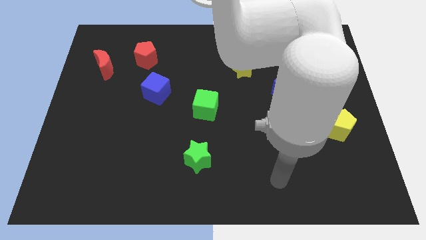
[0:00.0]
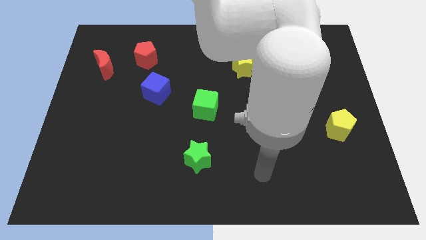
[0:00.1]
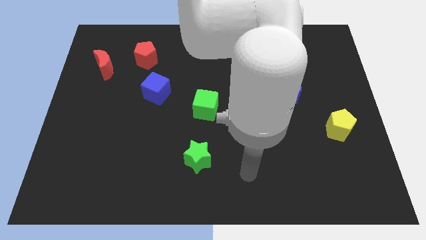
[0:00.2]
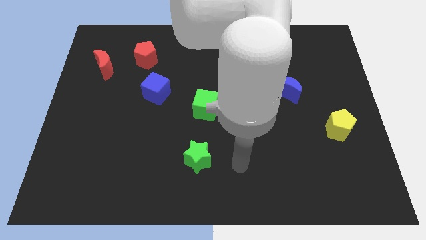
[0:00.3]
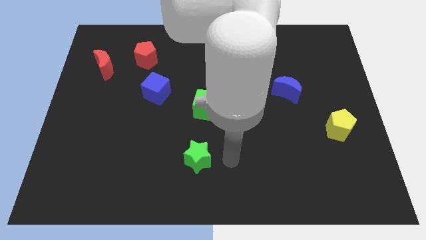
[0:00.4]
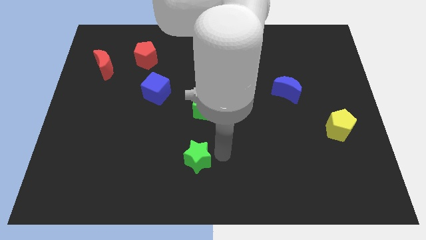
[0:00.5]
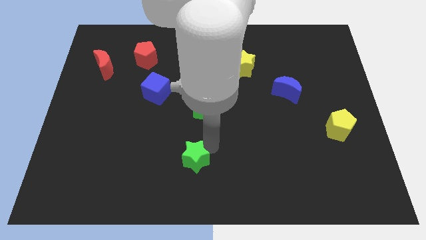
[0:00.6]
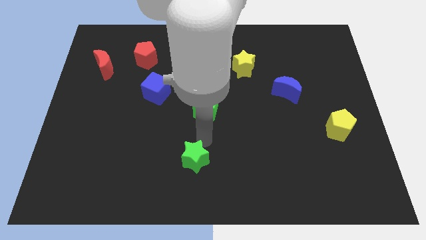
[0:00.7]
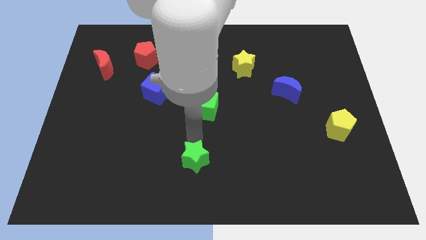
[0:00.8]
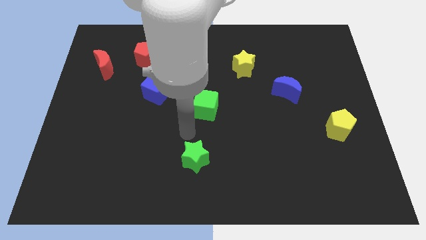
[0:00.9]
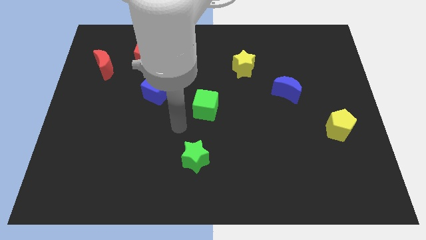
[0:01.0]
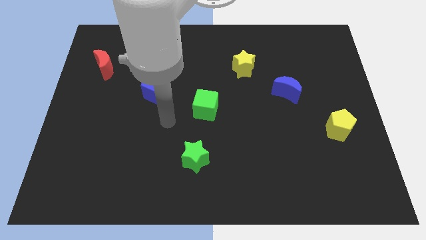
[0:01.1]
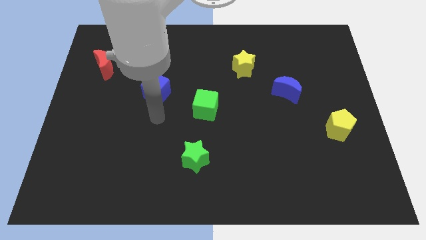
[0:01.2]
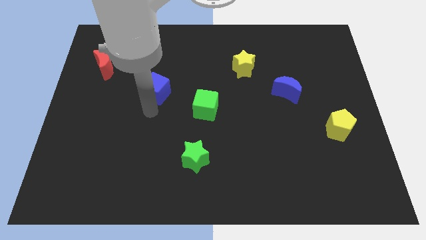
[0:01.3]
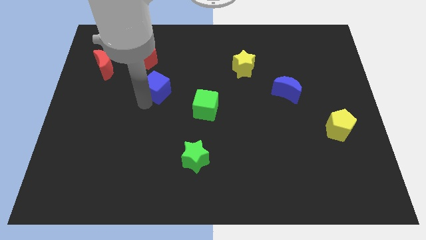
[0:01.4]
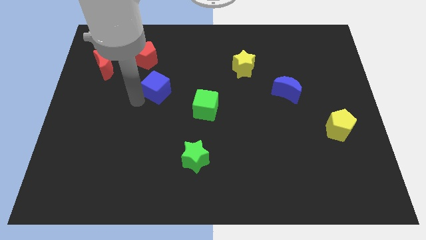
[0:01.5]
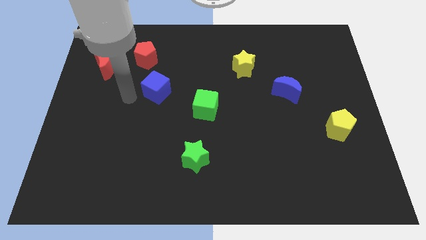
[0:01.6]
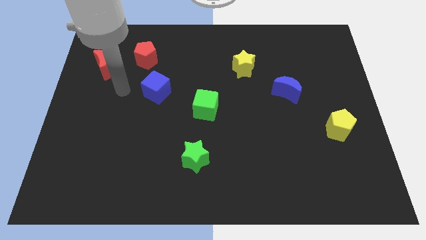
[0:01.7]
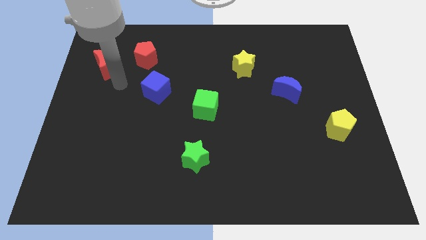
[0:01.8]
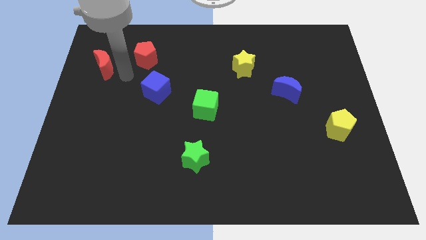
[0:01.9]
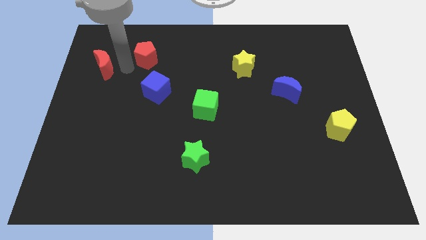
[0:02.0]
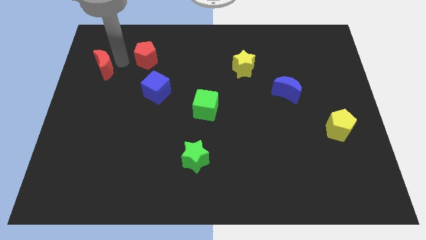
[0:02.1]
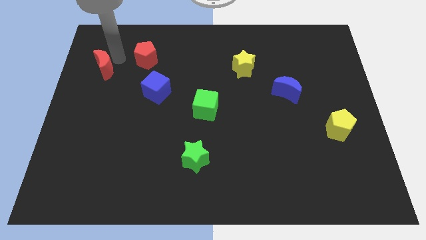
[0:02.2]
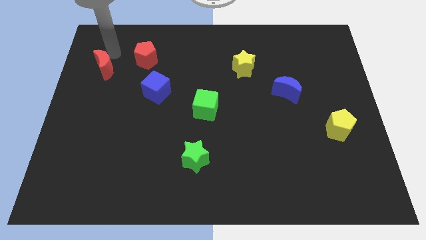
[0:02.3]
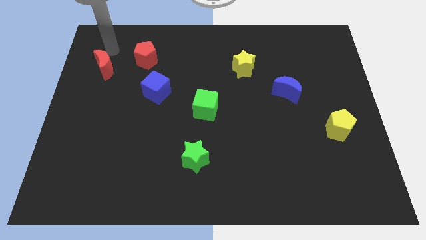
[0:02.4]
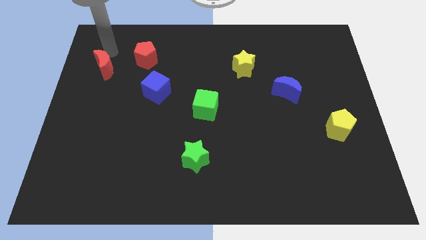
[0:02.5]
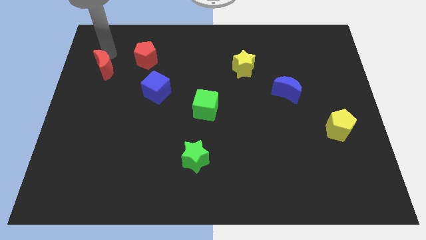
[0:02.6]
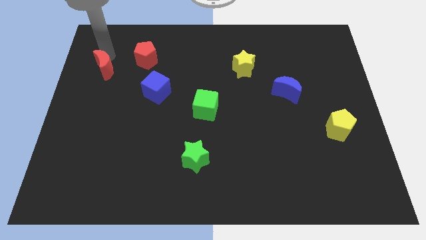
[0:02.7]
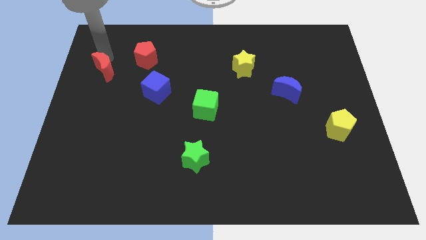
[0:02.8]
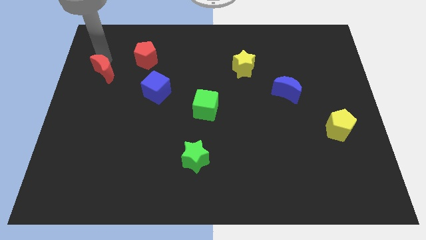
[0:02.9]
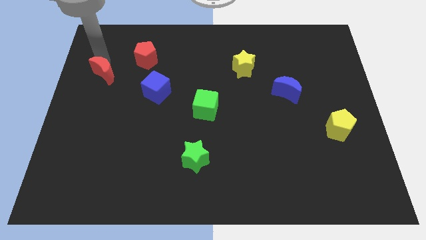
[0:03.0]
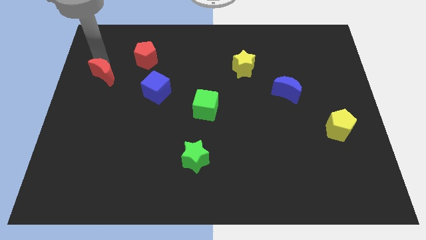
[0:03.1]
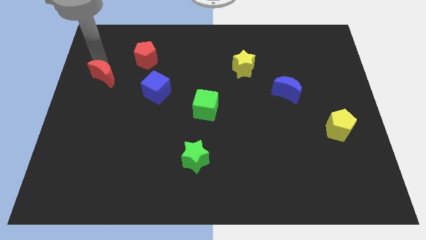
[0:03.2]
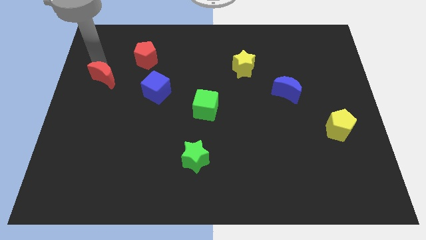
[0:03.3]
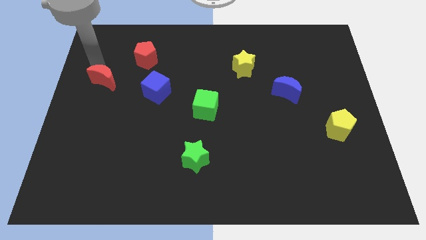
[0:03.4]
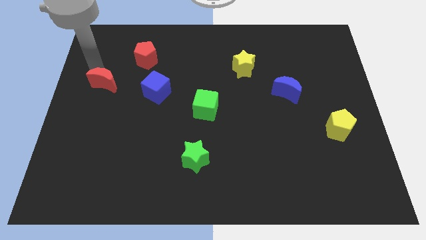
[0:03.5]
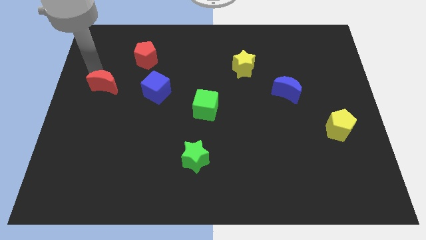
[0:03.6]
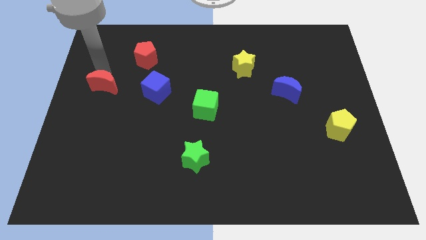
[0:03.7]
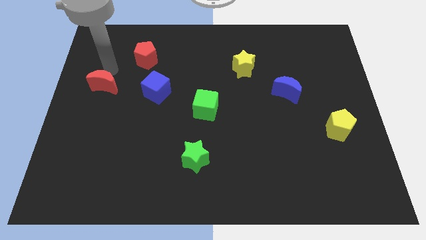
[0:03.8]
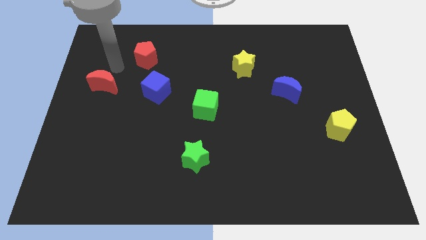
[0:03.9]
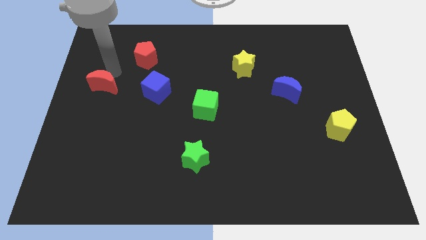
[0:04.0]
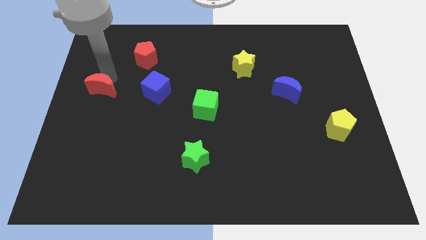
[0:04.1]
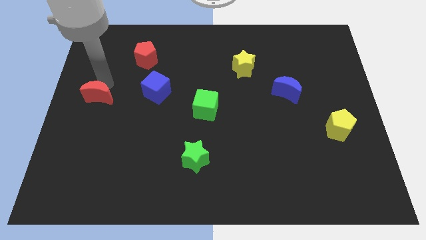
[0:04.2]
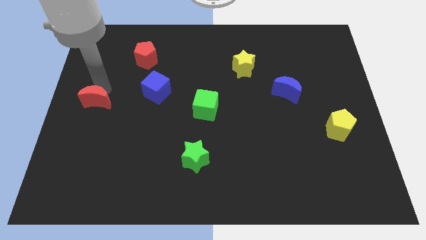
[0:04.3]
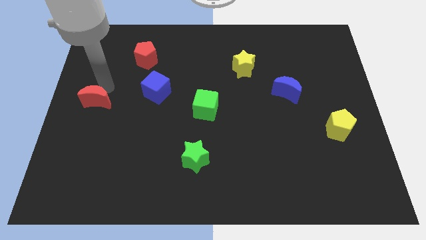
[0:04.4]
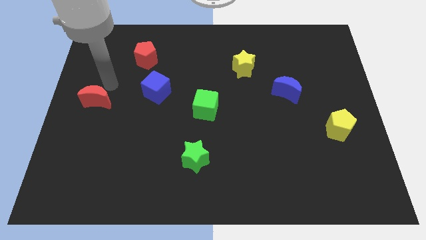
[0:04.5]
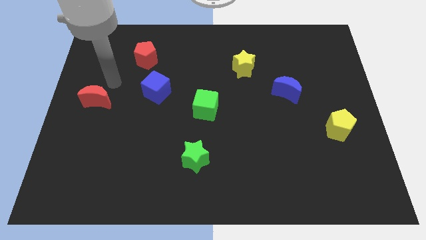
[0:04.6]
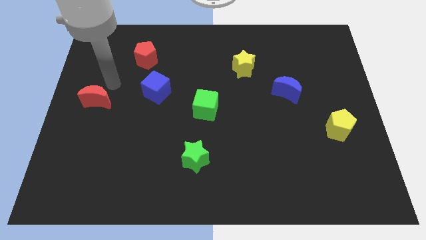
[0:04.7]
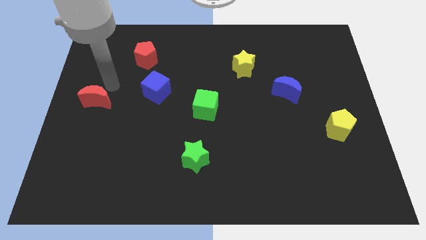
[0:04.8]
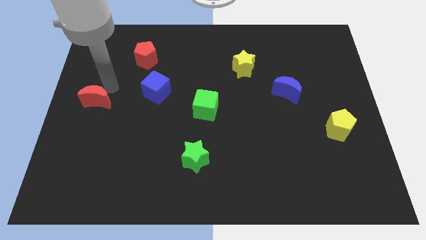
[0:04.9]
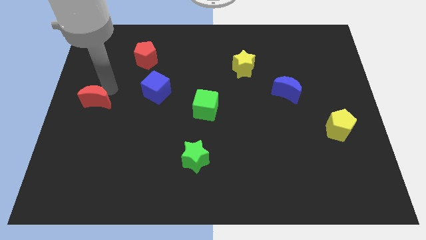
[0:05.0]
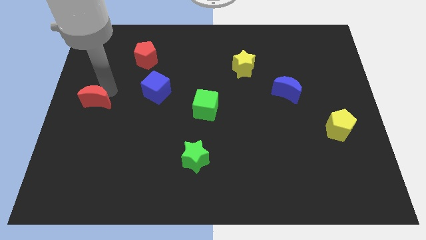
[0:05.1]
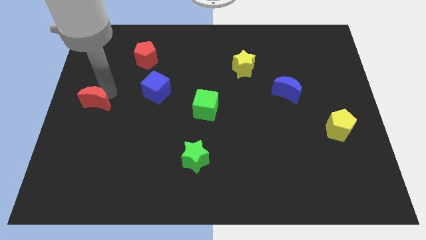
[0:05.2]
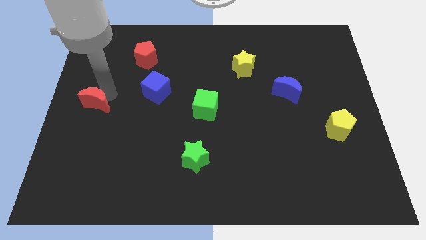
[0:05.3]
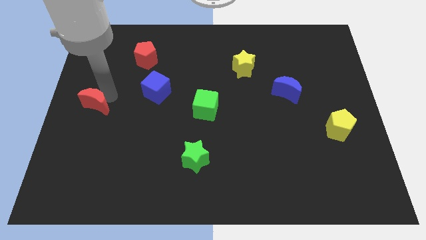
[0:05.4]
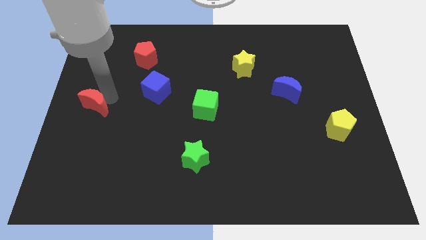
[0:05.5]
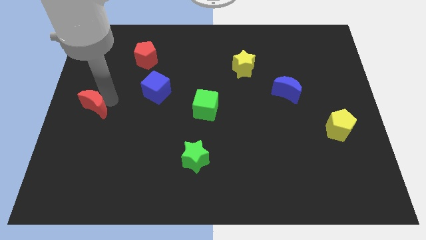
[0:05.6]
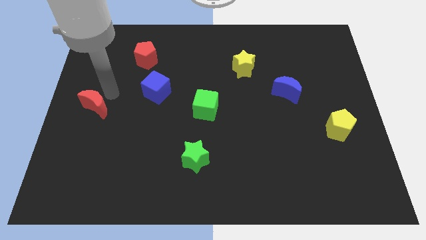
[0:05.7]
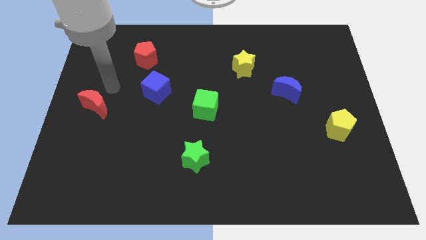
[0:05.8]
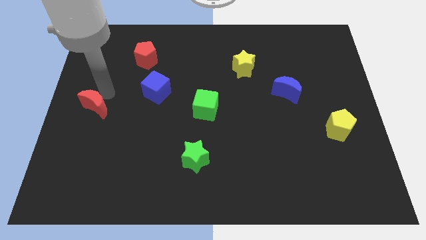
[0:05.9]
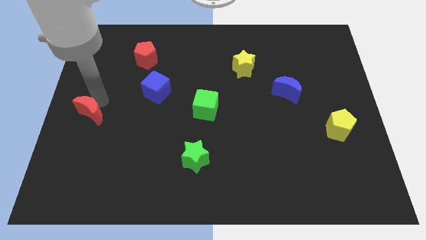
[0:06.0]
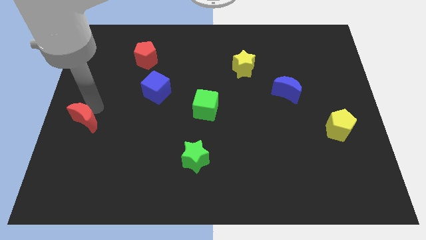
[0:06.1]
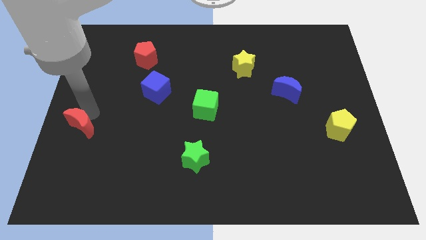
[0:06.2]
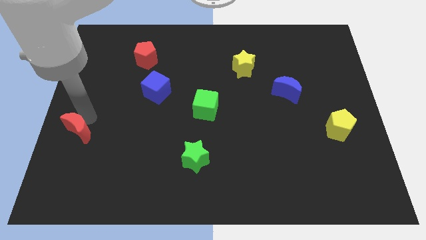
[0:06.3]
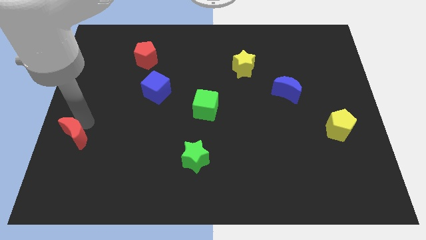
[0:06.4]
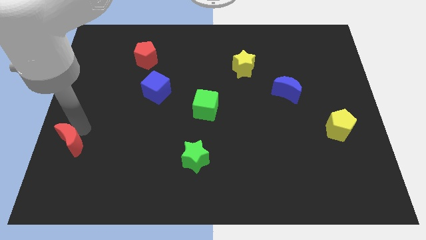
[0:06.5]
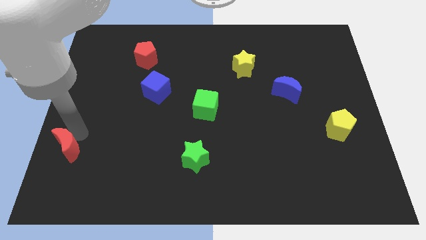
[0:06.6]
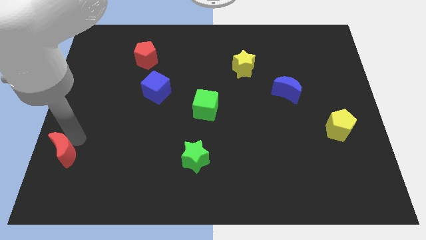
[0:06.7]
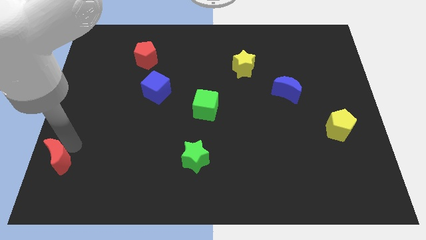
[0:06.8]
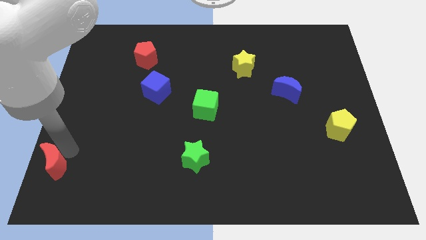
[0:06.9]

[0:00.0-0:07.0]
slide the red moon to the lower left corner
